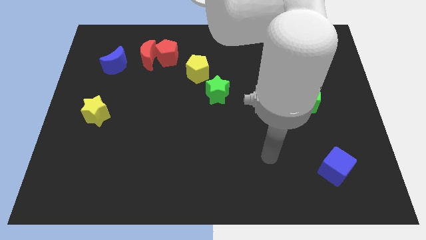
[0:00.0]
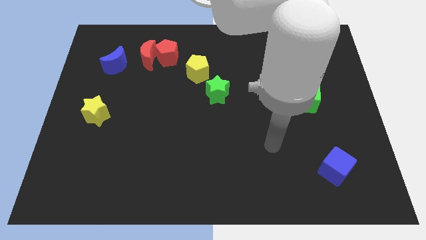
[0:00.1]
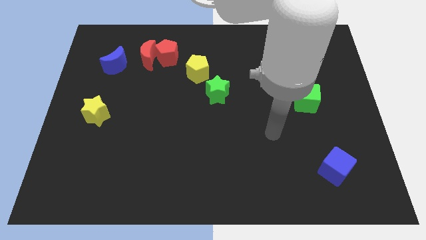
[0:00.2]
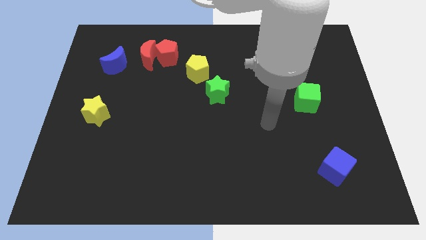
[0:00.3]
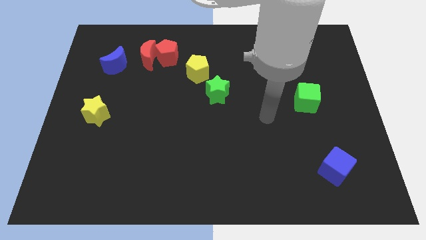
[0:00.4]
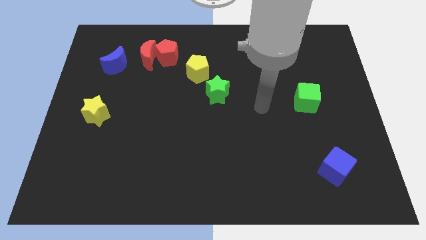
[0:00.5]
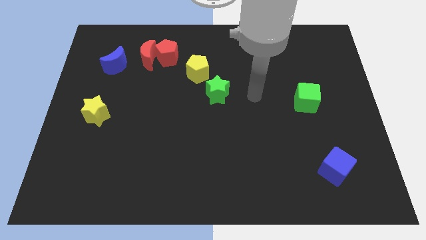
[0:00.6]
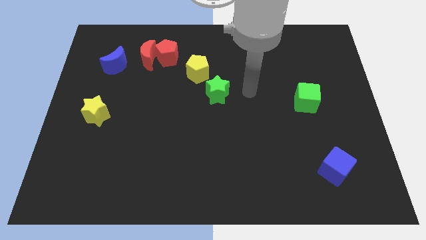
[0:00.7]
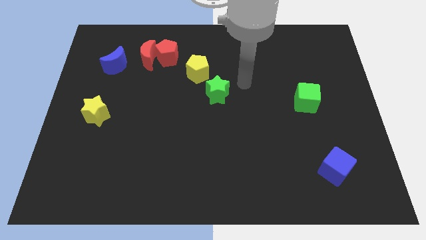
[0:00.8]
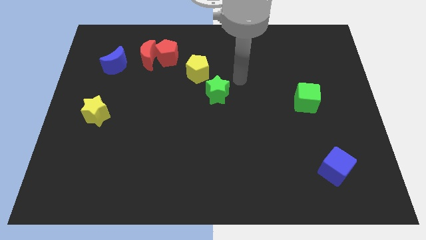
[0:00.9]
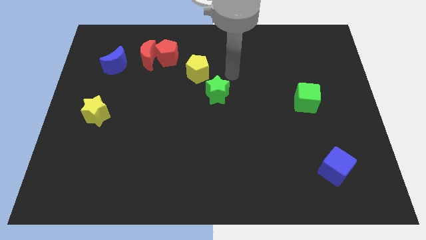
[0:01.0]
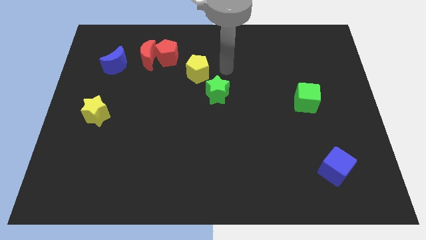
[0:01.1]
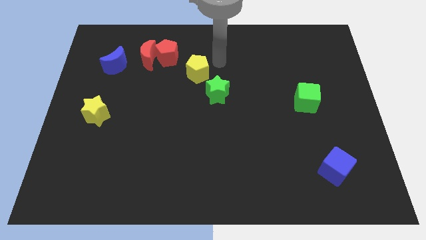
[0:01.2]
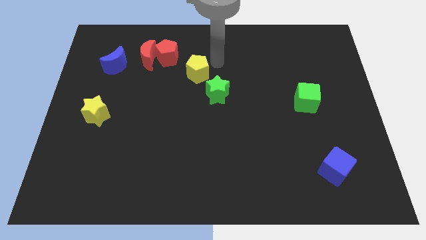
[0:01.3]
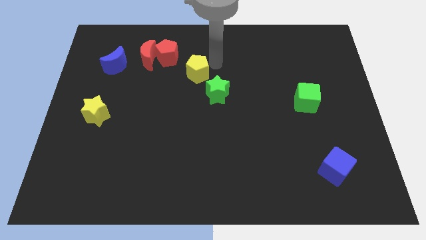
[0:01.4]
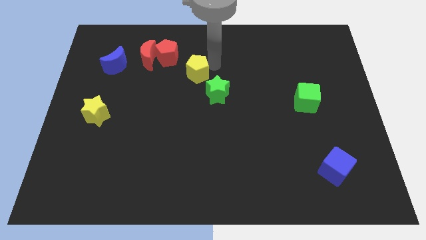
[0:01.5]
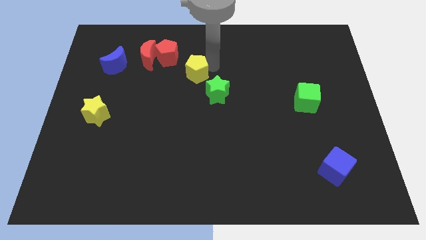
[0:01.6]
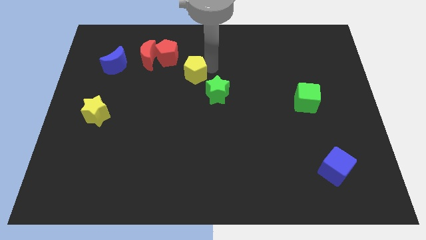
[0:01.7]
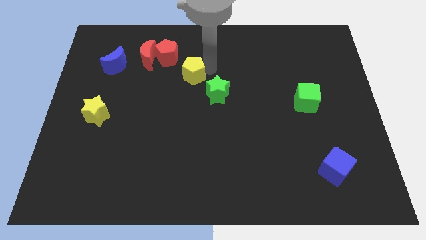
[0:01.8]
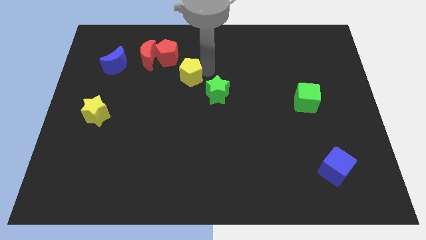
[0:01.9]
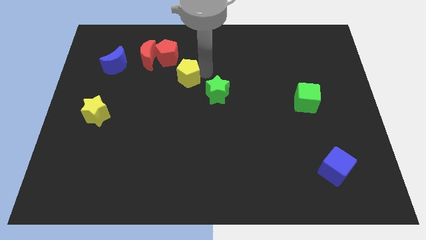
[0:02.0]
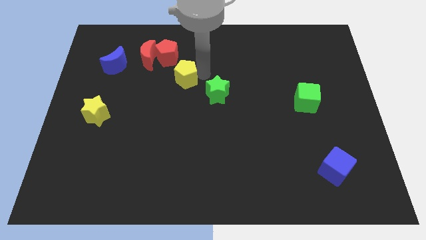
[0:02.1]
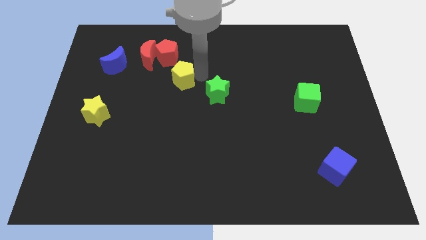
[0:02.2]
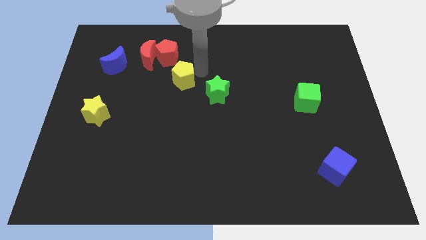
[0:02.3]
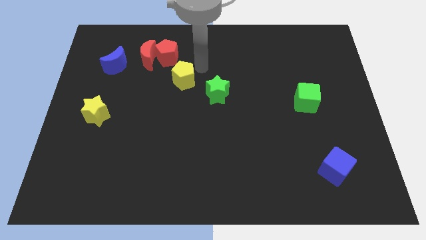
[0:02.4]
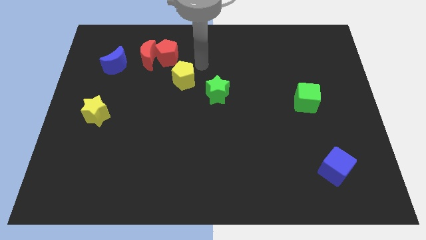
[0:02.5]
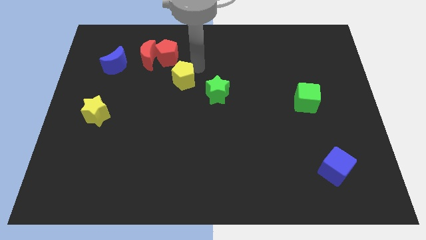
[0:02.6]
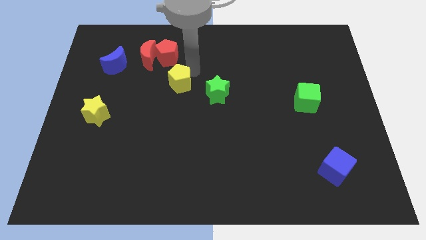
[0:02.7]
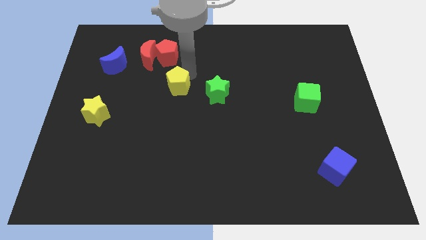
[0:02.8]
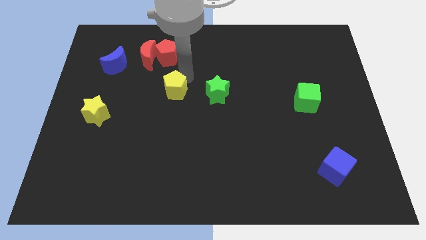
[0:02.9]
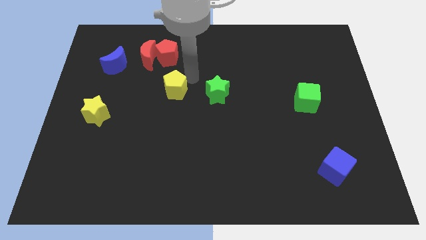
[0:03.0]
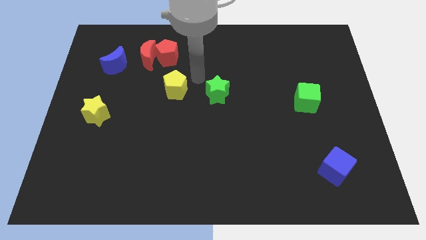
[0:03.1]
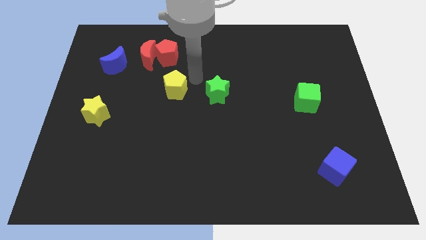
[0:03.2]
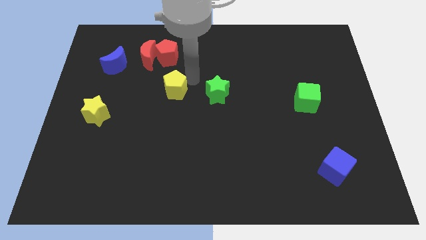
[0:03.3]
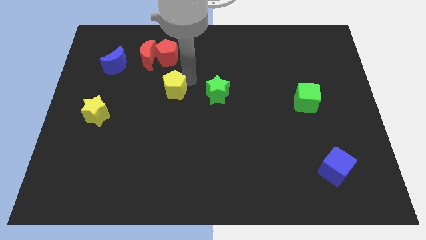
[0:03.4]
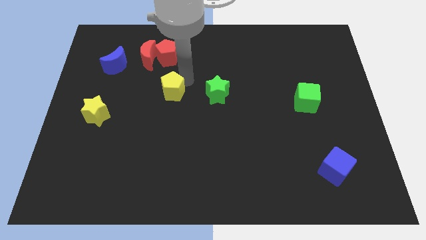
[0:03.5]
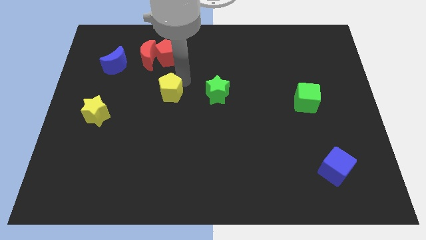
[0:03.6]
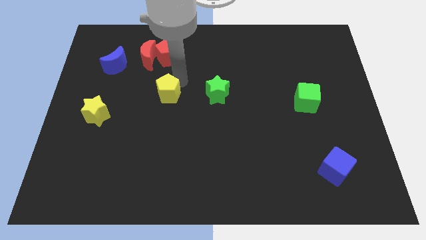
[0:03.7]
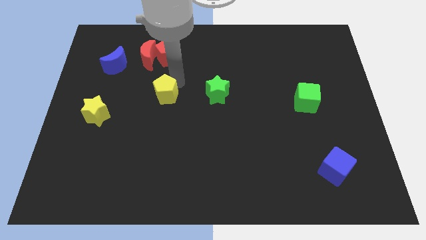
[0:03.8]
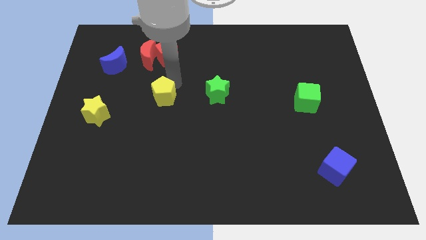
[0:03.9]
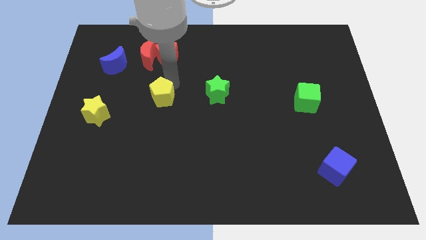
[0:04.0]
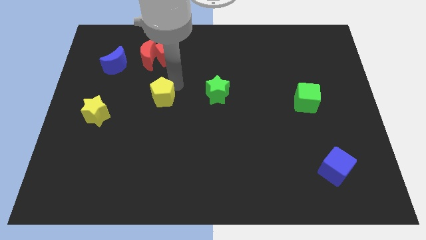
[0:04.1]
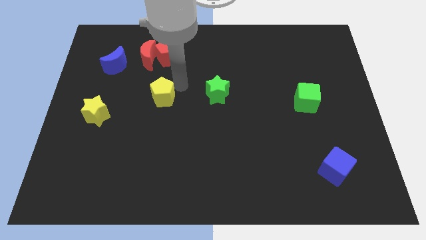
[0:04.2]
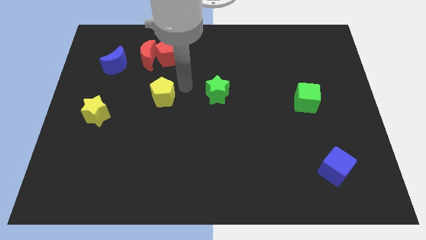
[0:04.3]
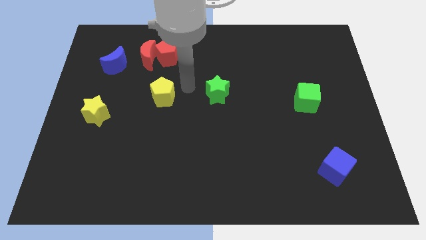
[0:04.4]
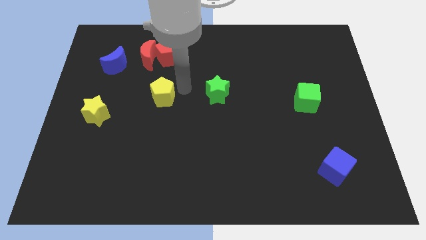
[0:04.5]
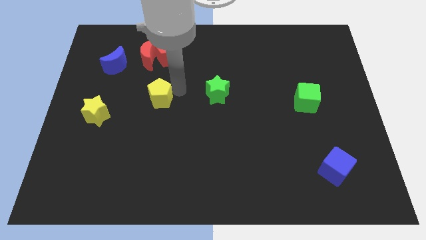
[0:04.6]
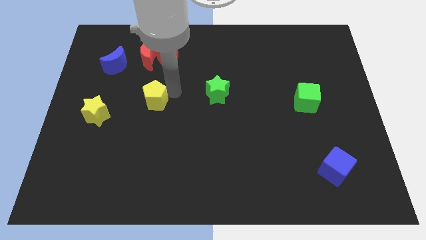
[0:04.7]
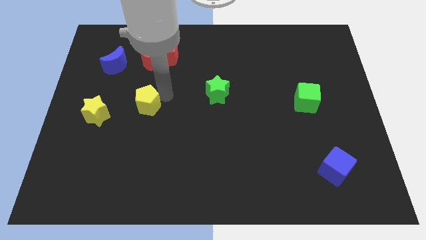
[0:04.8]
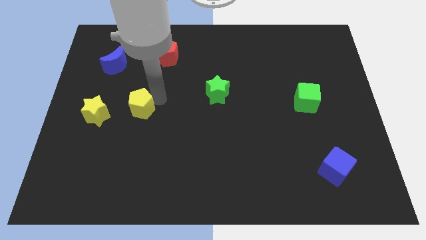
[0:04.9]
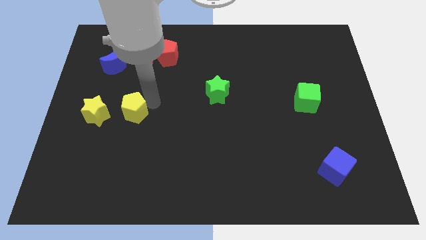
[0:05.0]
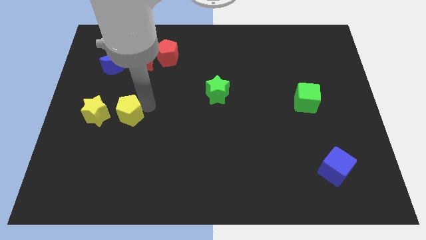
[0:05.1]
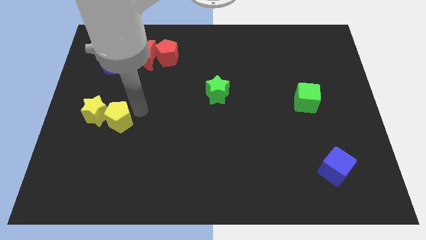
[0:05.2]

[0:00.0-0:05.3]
slide the yellow pentagon towards the yellow star

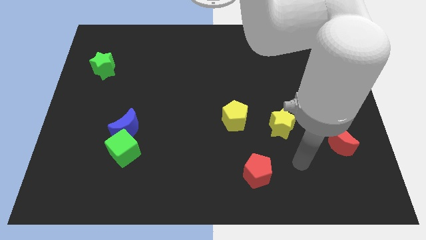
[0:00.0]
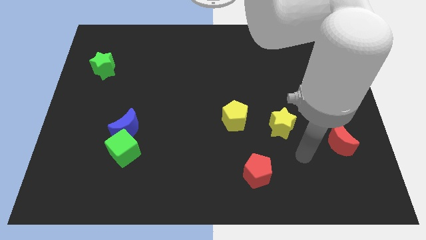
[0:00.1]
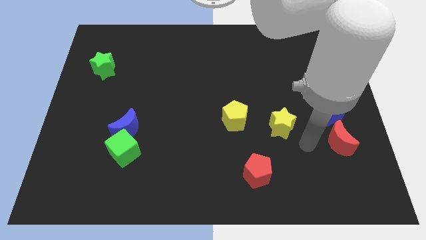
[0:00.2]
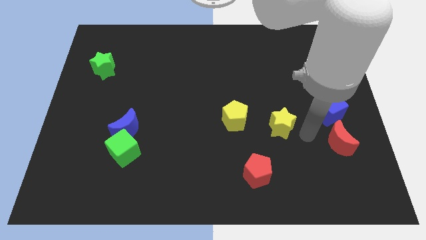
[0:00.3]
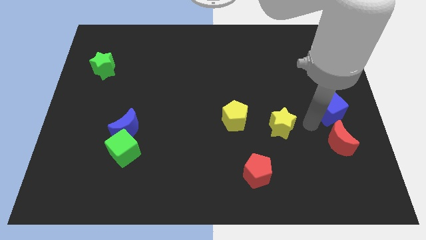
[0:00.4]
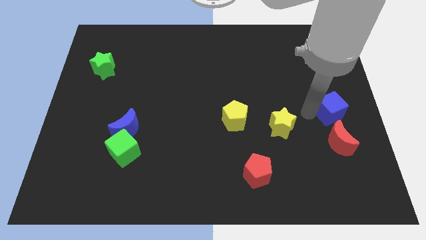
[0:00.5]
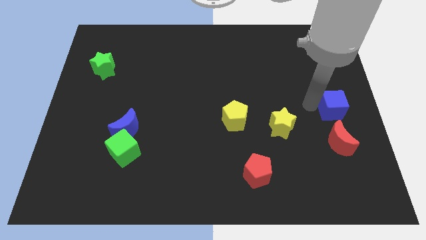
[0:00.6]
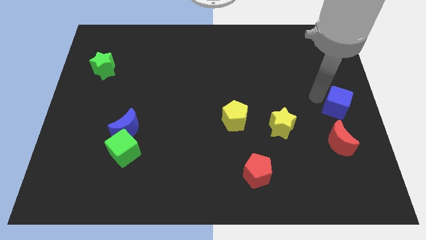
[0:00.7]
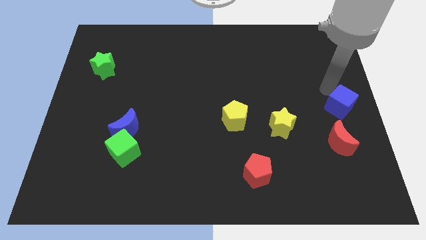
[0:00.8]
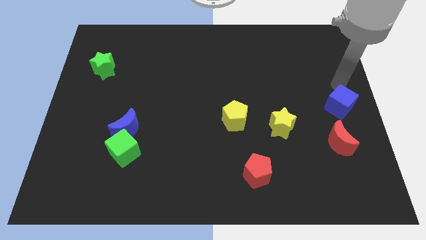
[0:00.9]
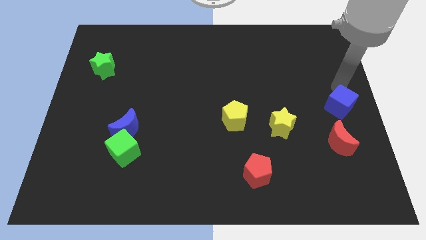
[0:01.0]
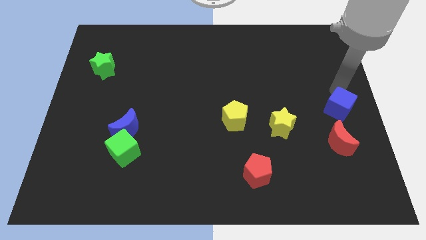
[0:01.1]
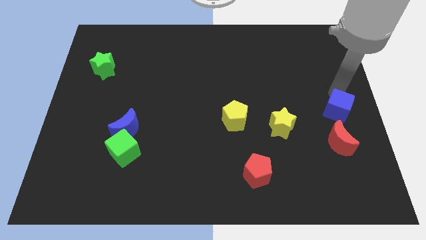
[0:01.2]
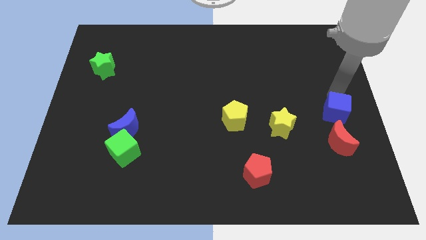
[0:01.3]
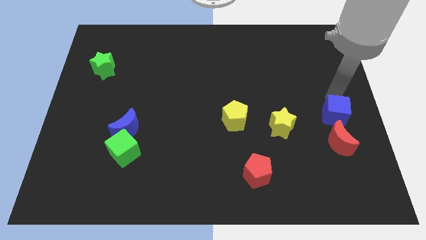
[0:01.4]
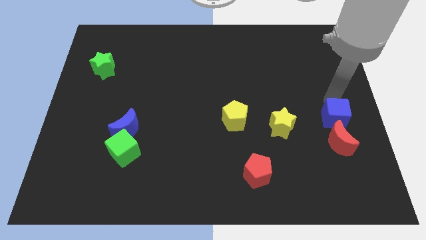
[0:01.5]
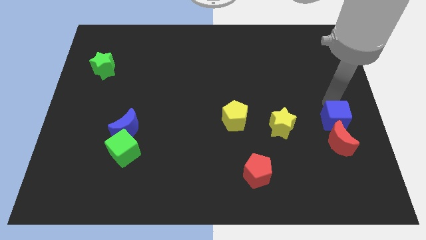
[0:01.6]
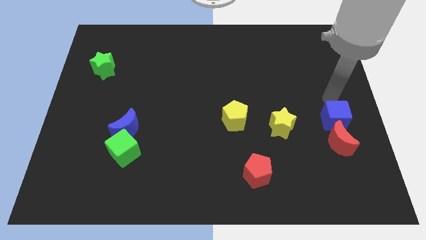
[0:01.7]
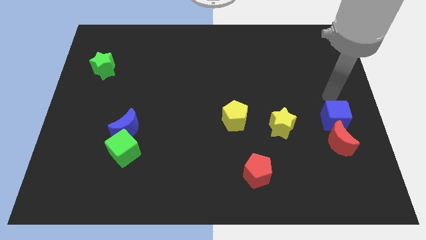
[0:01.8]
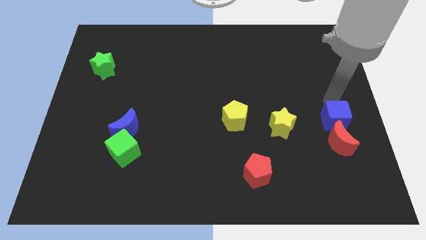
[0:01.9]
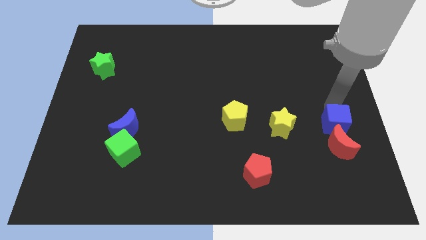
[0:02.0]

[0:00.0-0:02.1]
move the blue cube towards the red moon

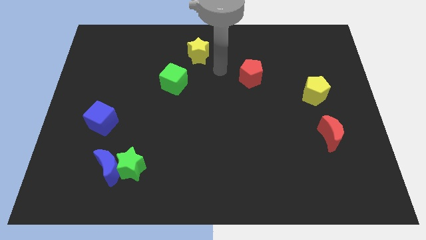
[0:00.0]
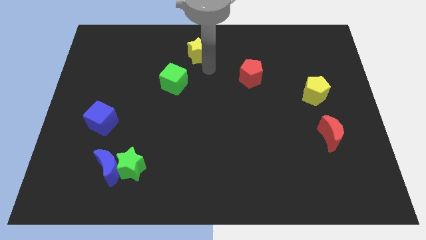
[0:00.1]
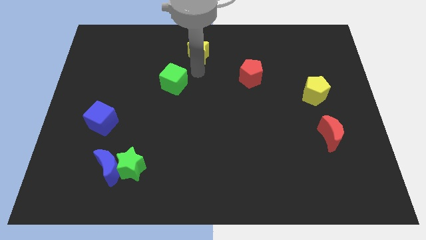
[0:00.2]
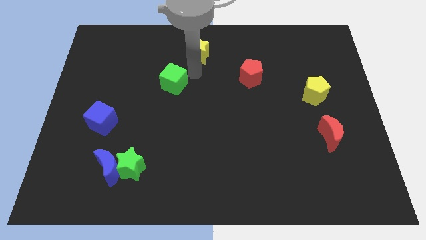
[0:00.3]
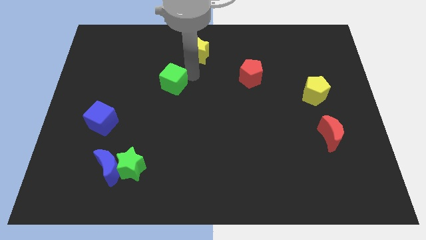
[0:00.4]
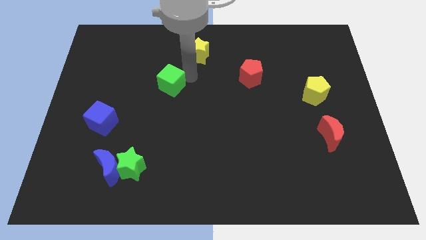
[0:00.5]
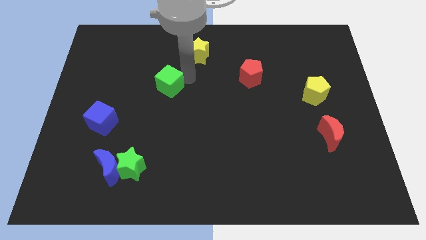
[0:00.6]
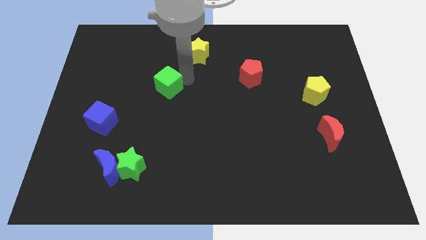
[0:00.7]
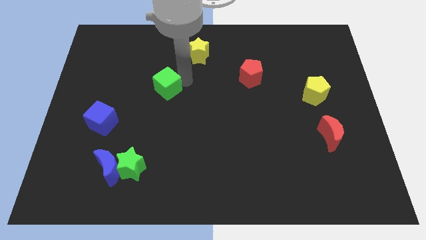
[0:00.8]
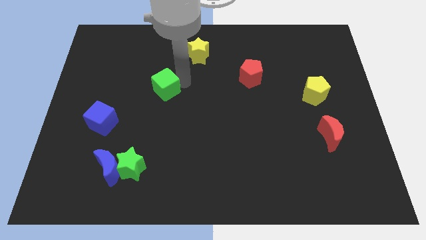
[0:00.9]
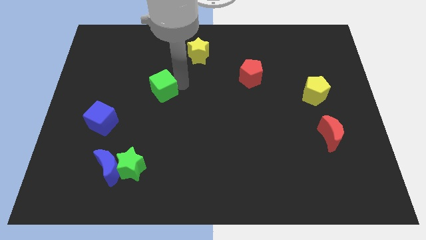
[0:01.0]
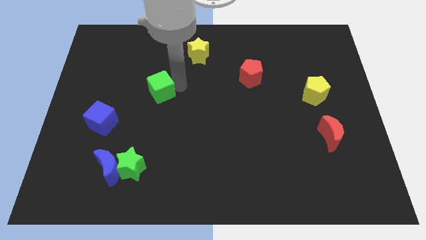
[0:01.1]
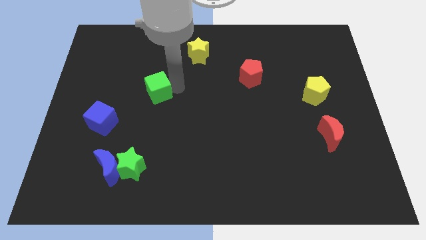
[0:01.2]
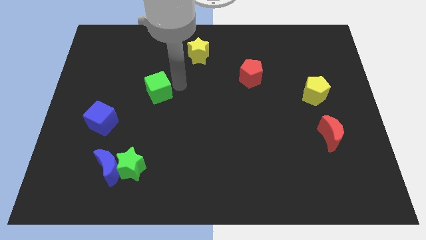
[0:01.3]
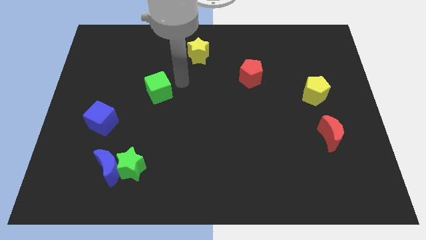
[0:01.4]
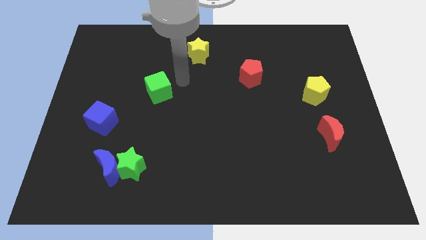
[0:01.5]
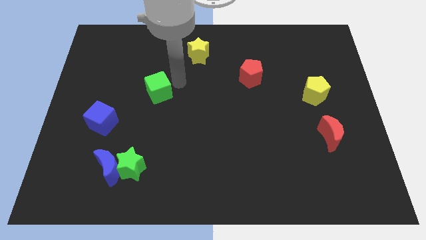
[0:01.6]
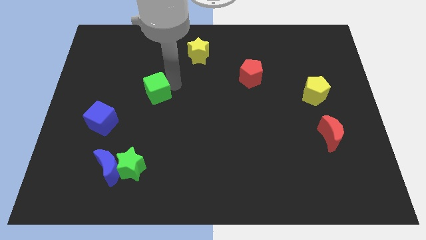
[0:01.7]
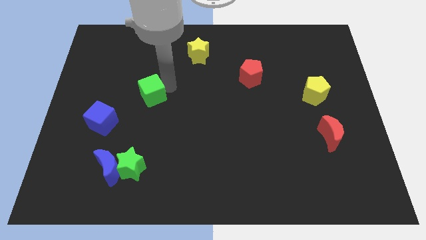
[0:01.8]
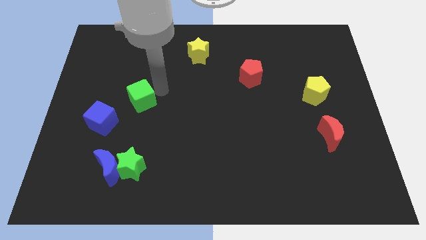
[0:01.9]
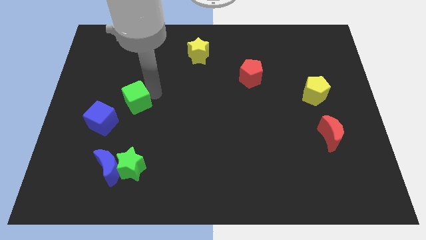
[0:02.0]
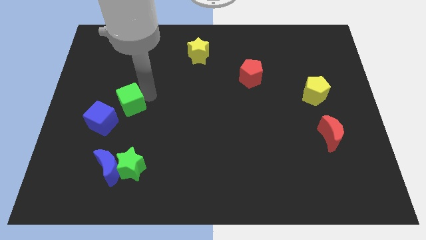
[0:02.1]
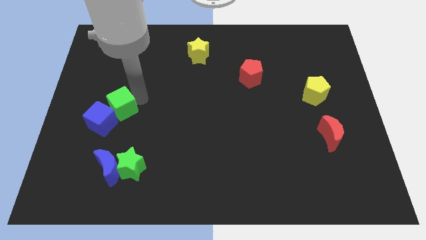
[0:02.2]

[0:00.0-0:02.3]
put the green cube next to the blue cube
